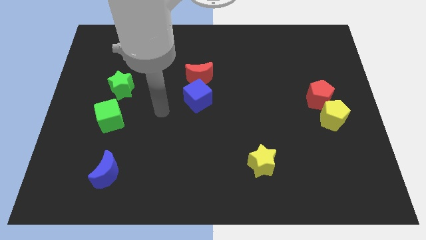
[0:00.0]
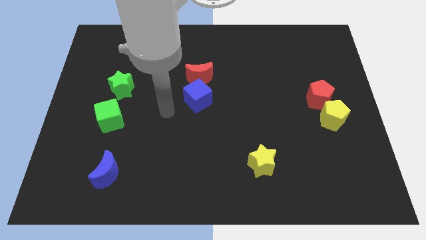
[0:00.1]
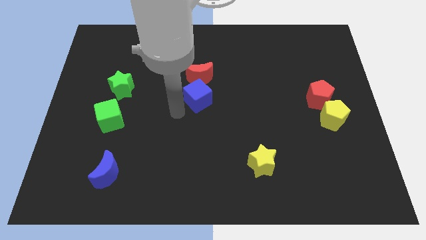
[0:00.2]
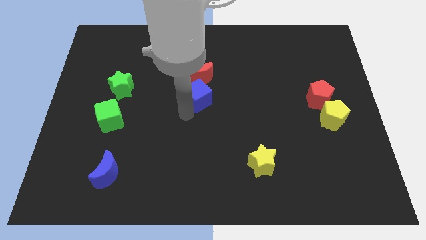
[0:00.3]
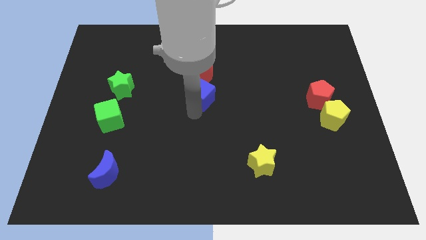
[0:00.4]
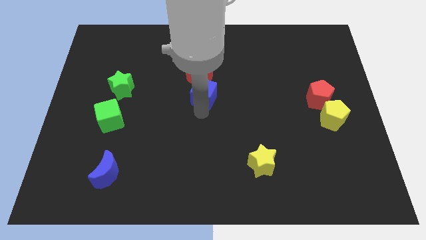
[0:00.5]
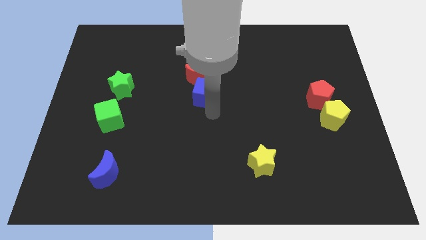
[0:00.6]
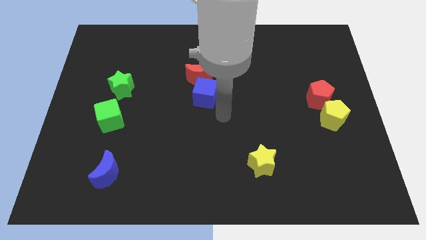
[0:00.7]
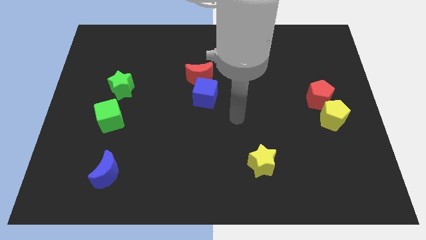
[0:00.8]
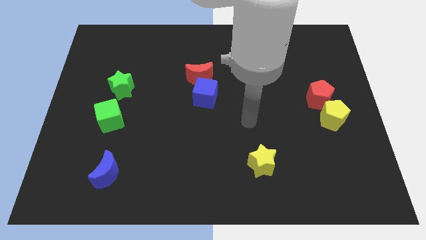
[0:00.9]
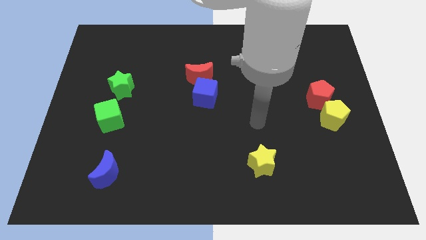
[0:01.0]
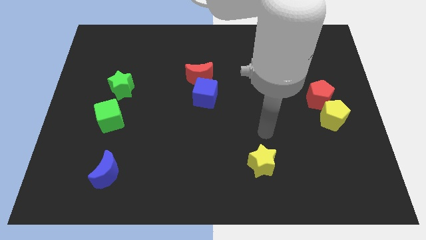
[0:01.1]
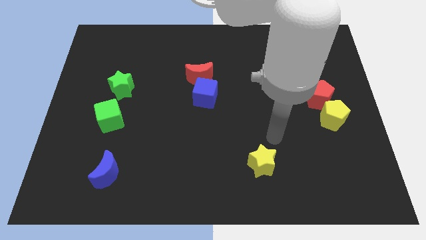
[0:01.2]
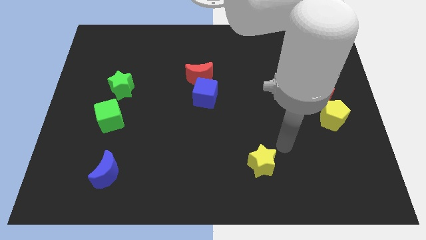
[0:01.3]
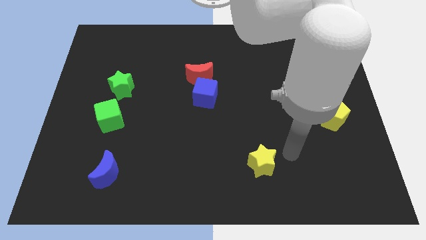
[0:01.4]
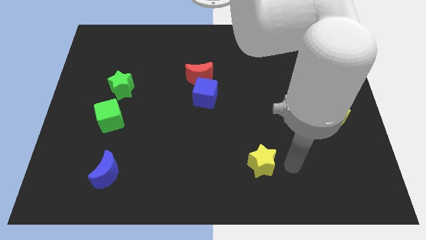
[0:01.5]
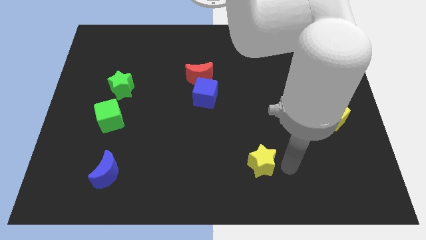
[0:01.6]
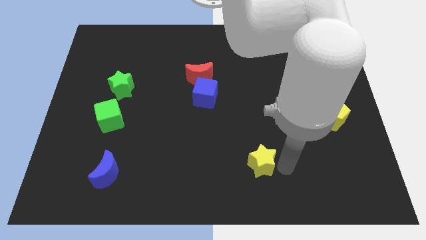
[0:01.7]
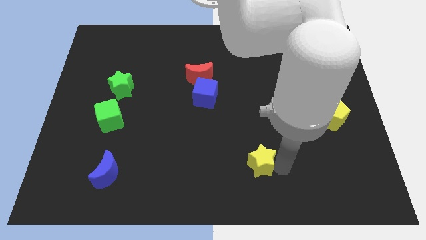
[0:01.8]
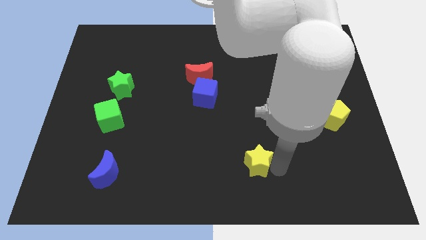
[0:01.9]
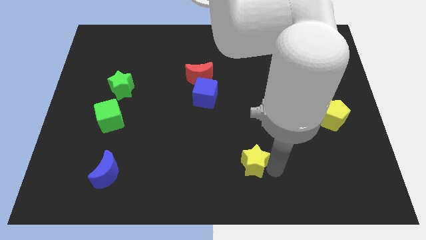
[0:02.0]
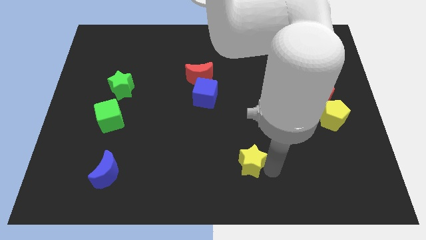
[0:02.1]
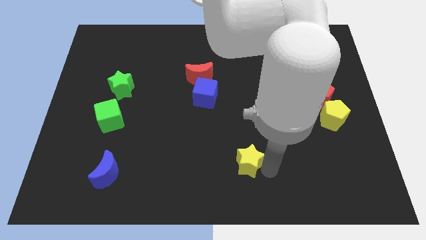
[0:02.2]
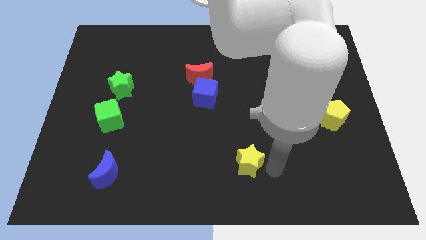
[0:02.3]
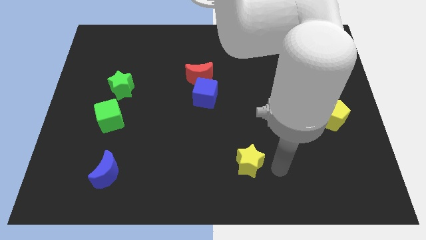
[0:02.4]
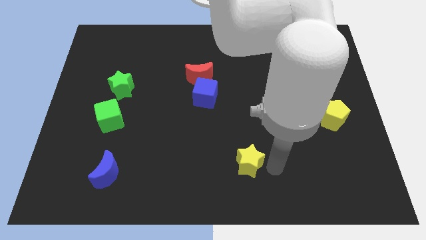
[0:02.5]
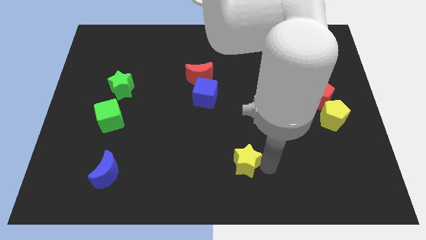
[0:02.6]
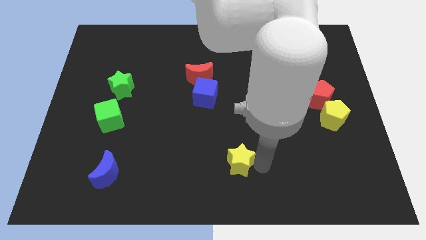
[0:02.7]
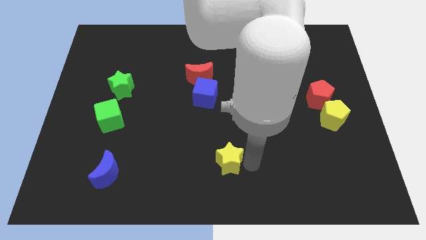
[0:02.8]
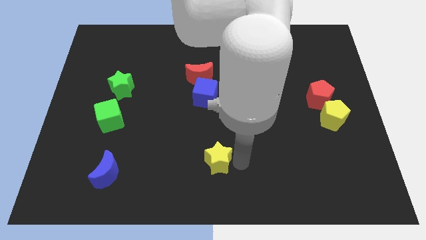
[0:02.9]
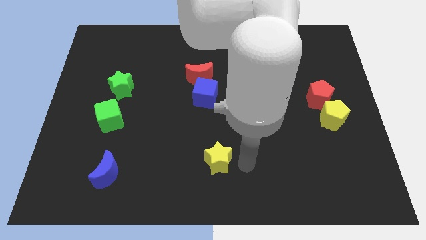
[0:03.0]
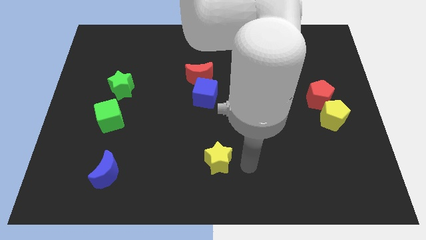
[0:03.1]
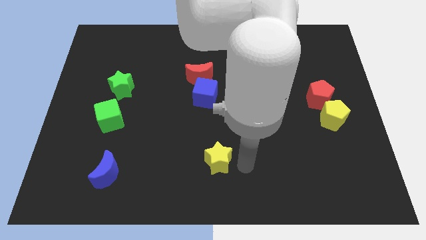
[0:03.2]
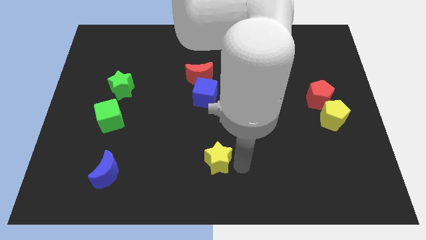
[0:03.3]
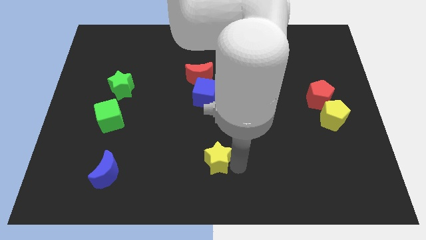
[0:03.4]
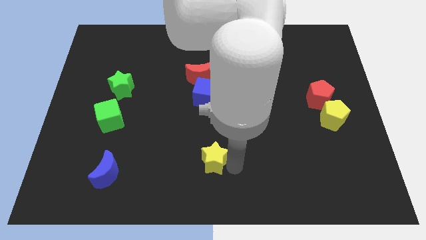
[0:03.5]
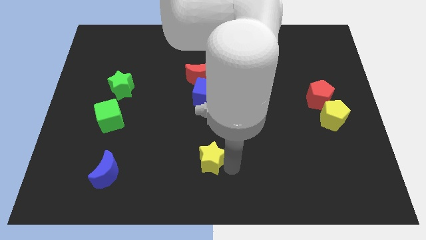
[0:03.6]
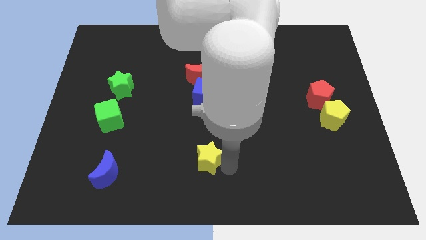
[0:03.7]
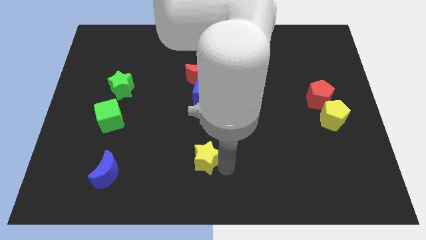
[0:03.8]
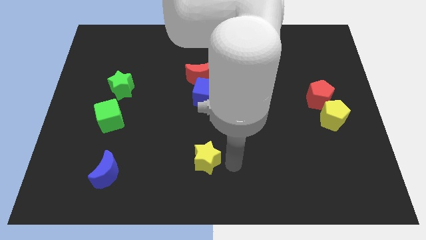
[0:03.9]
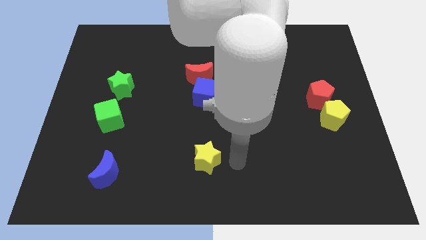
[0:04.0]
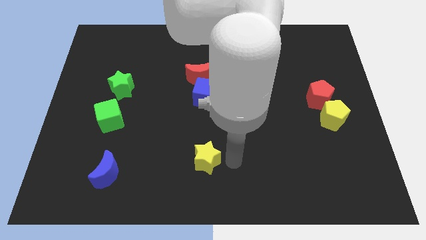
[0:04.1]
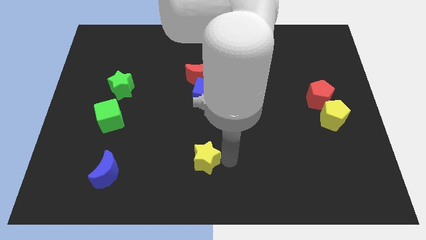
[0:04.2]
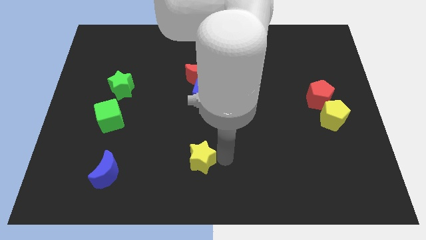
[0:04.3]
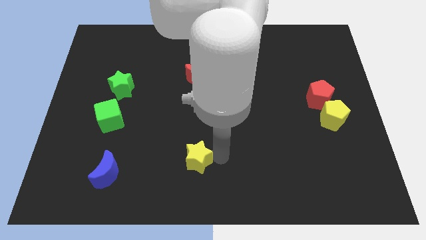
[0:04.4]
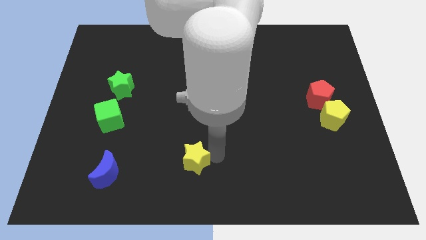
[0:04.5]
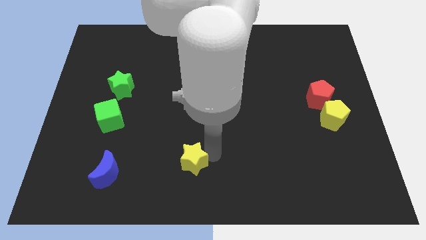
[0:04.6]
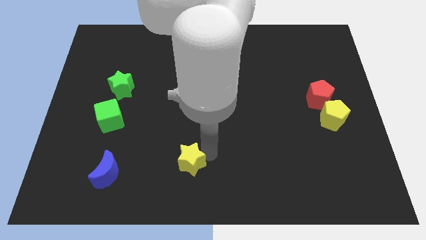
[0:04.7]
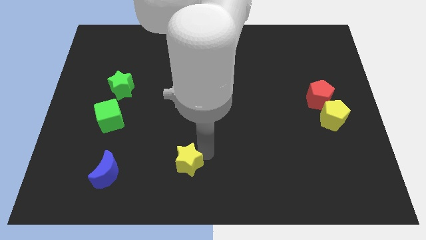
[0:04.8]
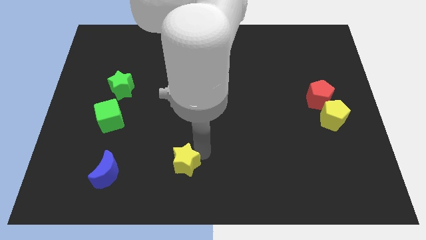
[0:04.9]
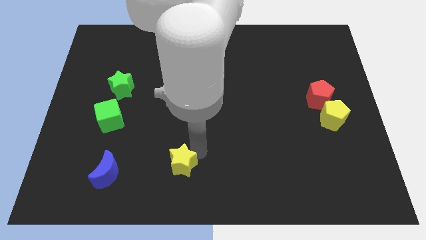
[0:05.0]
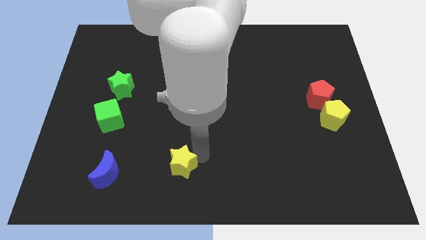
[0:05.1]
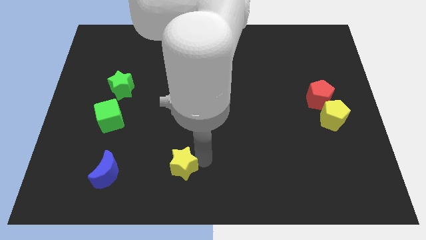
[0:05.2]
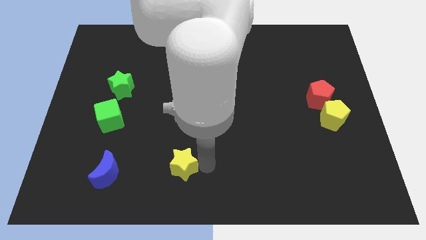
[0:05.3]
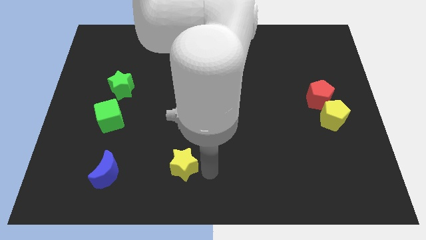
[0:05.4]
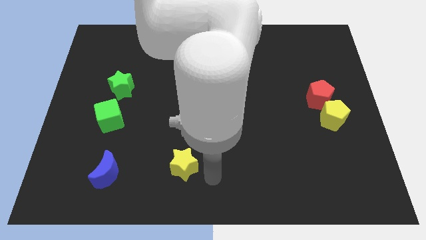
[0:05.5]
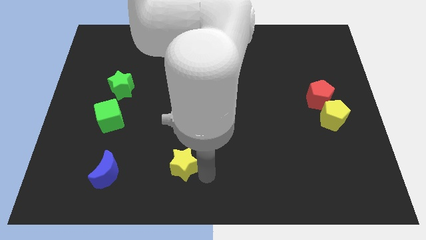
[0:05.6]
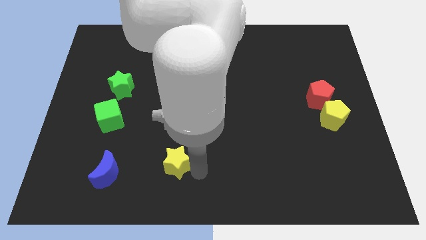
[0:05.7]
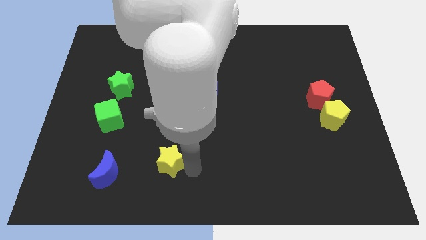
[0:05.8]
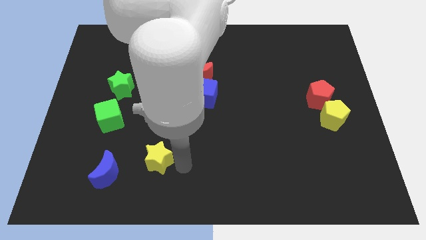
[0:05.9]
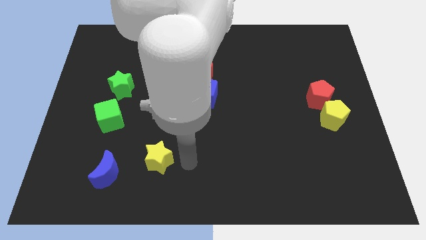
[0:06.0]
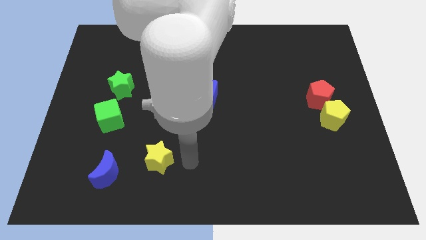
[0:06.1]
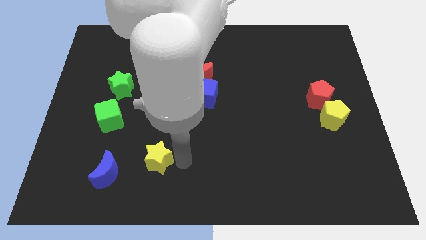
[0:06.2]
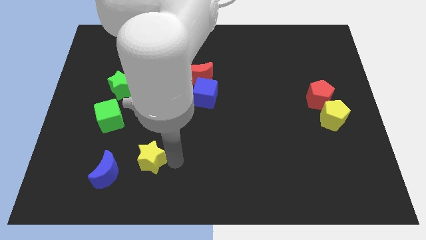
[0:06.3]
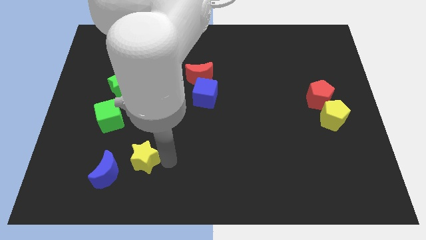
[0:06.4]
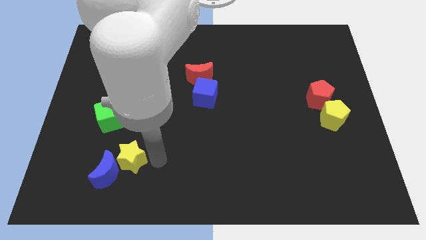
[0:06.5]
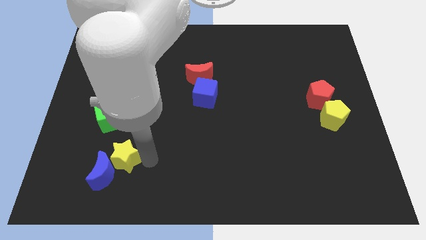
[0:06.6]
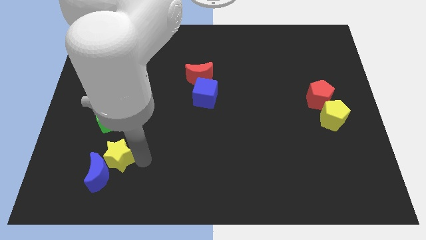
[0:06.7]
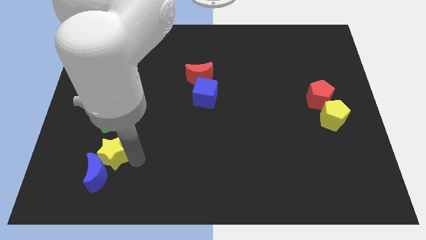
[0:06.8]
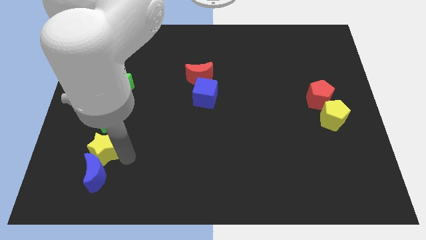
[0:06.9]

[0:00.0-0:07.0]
push the yellow star to the top left side of the blue moon

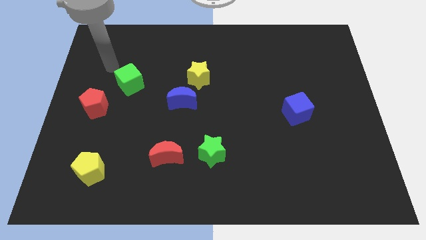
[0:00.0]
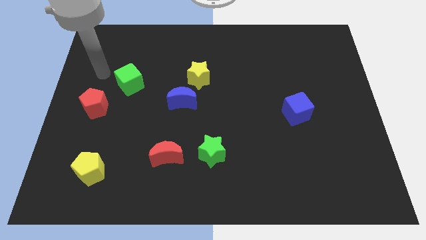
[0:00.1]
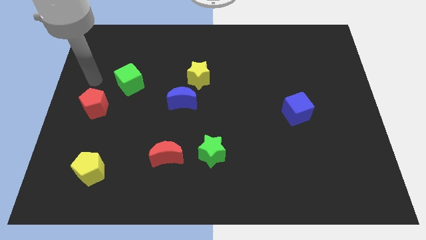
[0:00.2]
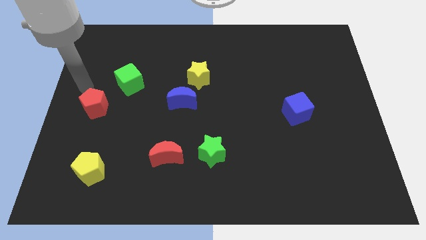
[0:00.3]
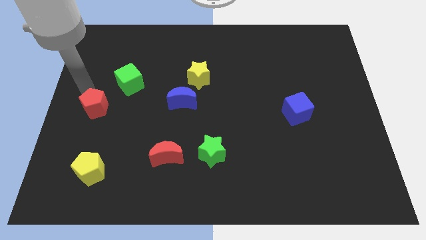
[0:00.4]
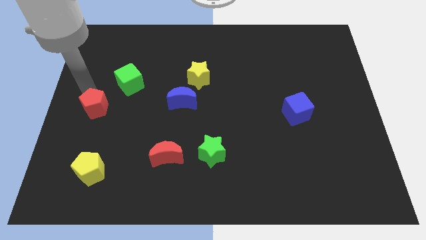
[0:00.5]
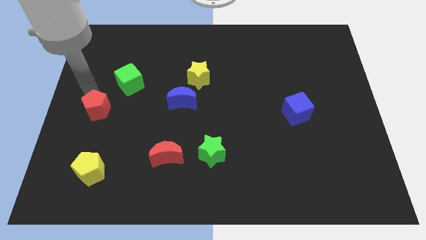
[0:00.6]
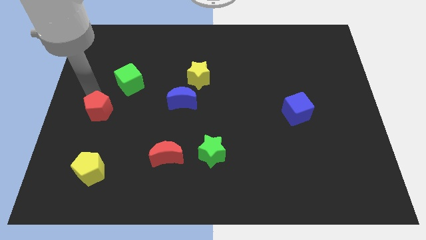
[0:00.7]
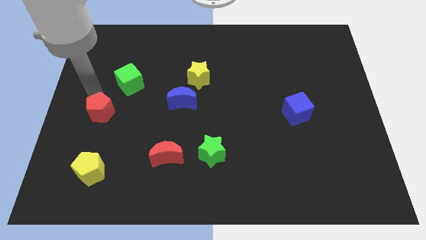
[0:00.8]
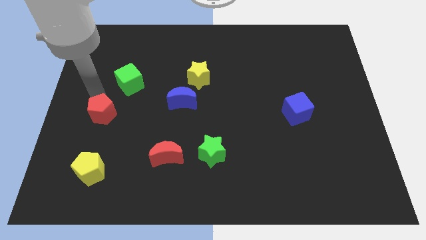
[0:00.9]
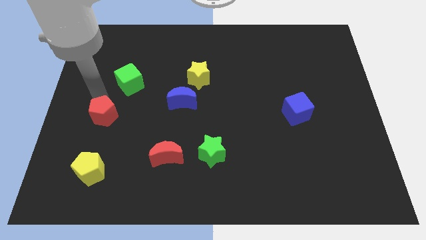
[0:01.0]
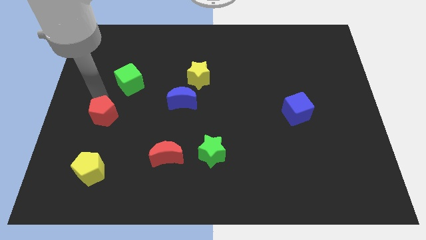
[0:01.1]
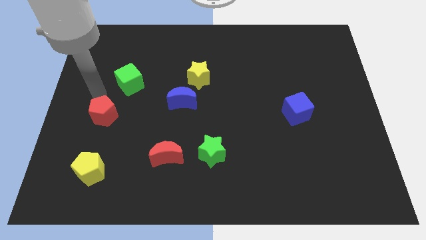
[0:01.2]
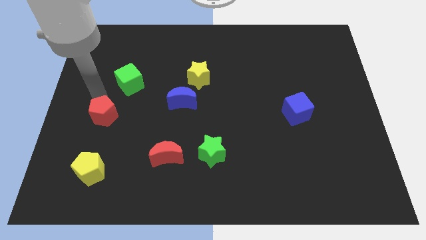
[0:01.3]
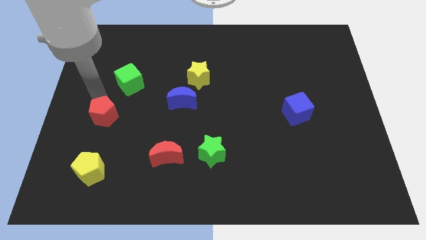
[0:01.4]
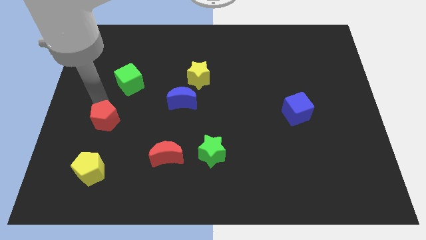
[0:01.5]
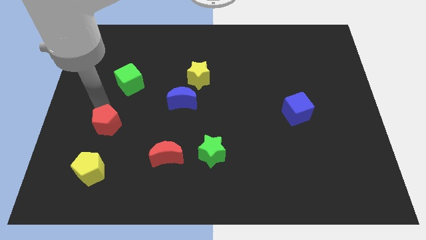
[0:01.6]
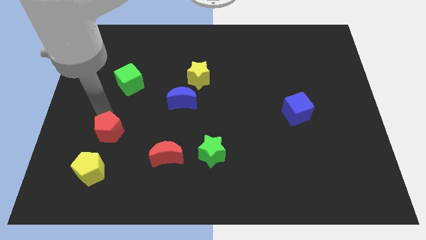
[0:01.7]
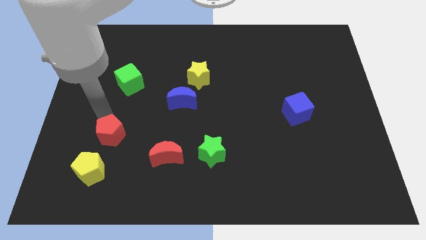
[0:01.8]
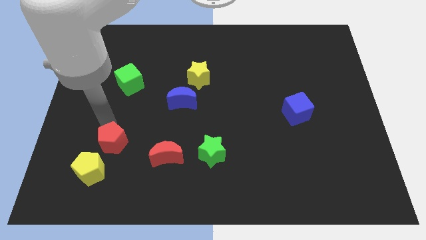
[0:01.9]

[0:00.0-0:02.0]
move the red pentagon to the left of the red moon
